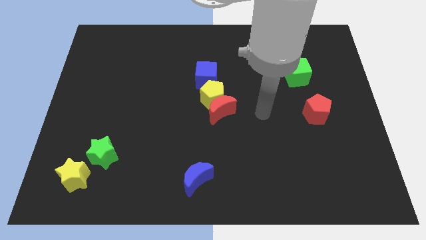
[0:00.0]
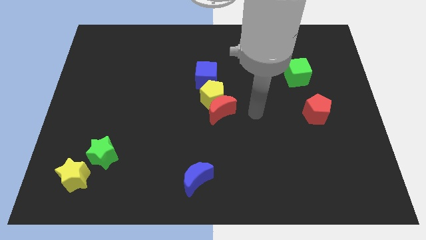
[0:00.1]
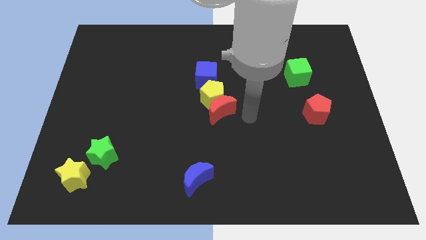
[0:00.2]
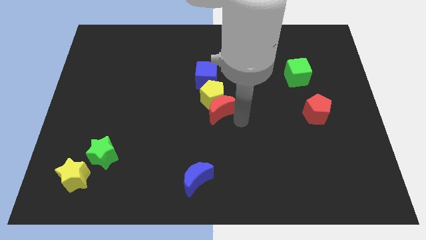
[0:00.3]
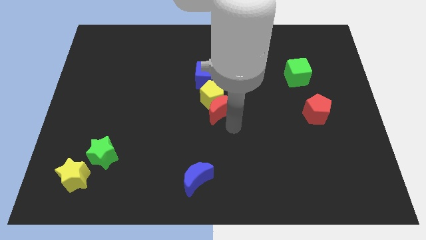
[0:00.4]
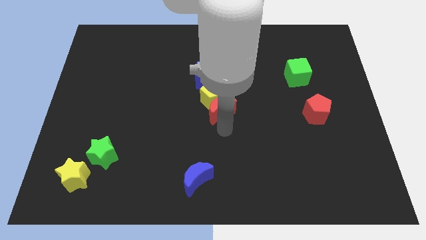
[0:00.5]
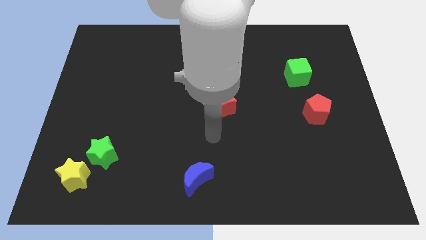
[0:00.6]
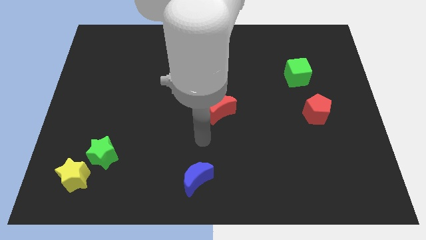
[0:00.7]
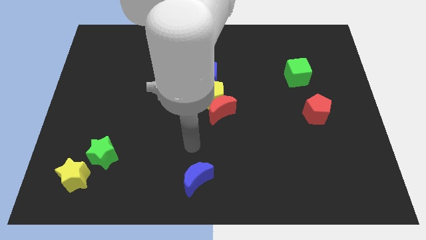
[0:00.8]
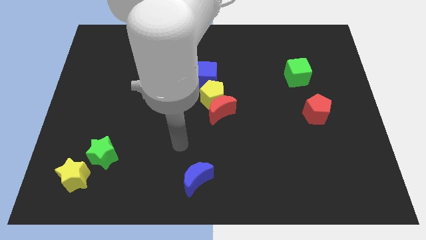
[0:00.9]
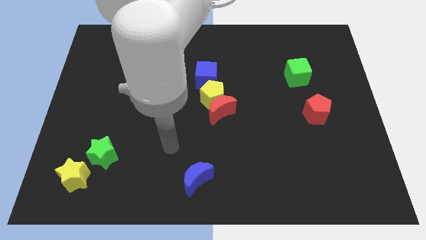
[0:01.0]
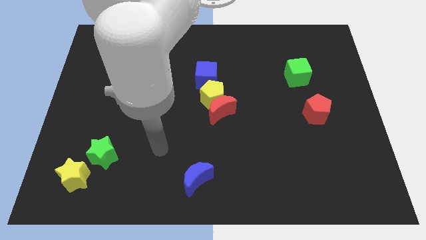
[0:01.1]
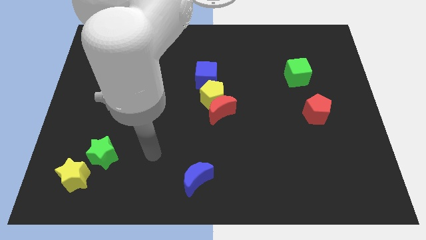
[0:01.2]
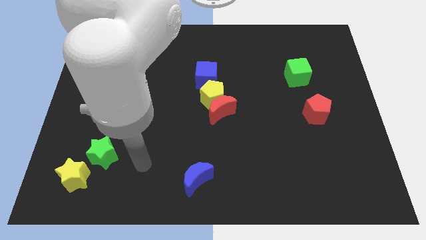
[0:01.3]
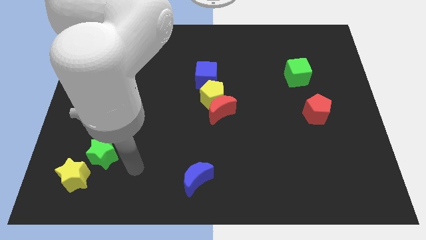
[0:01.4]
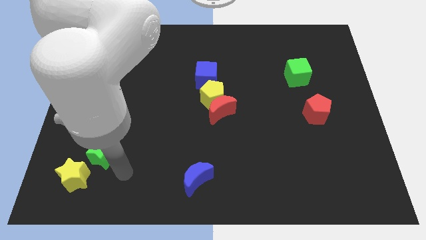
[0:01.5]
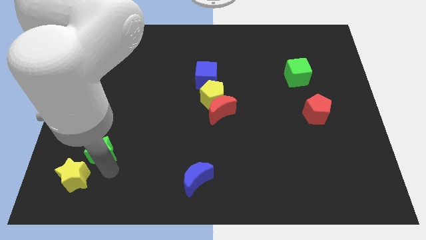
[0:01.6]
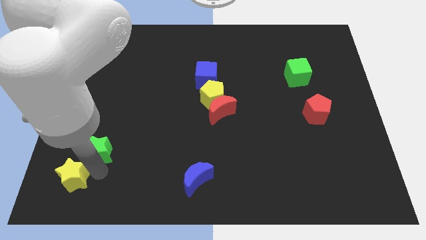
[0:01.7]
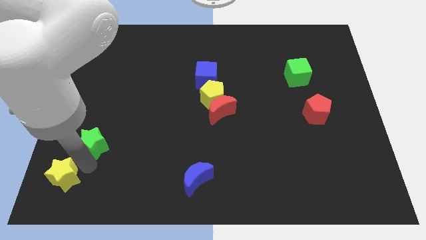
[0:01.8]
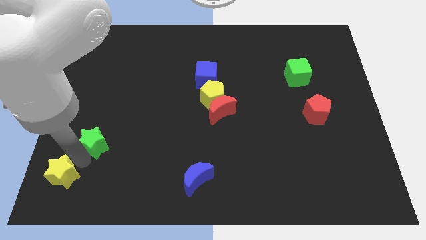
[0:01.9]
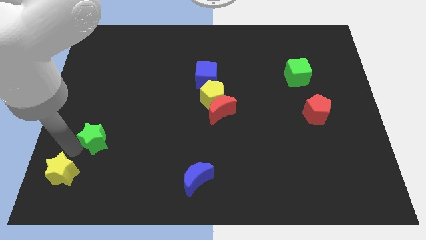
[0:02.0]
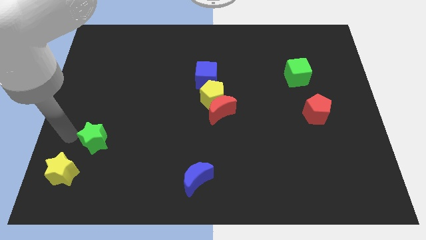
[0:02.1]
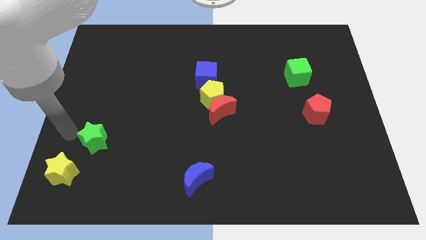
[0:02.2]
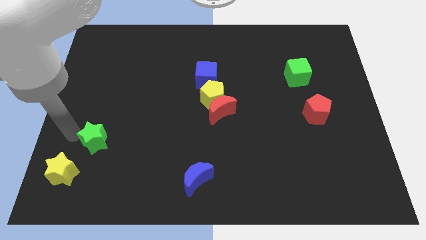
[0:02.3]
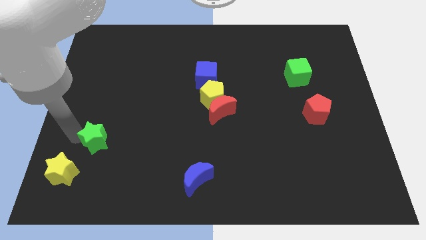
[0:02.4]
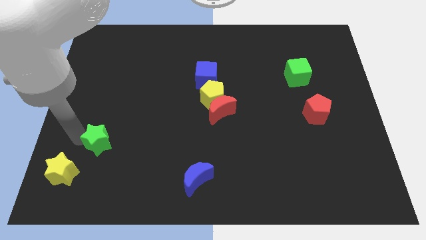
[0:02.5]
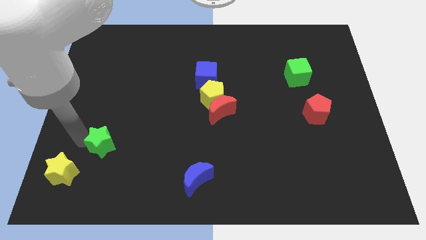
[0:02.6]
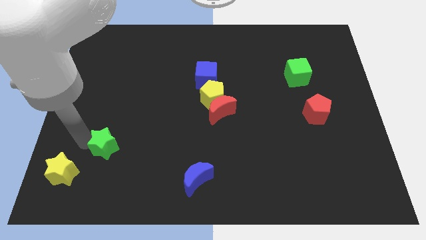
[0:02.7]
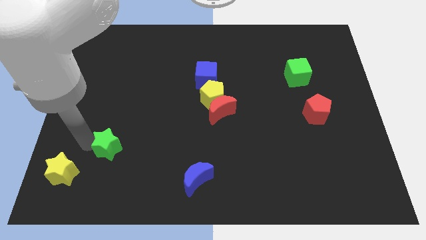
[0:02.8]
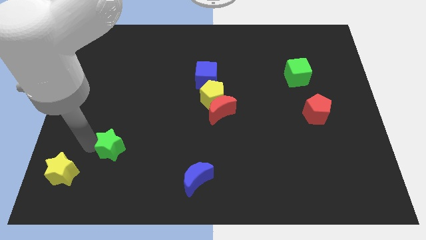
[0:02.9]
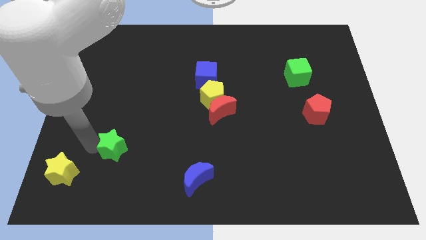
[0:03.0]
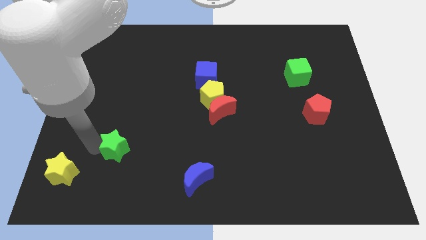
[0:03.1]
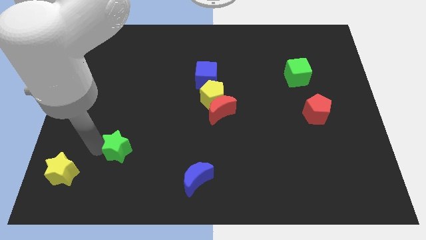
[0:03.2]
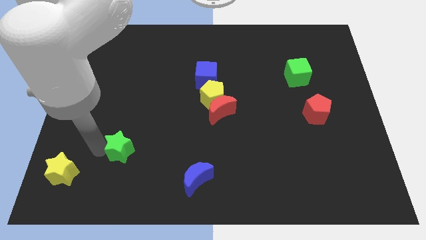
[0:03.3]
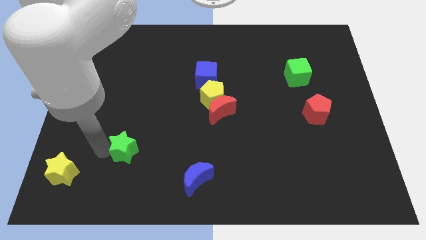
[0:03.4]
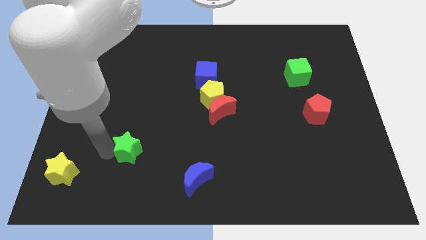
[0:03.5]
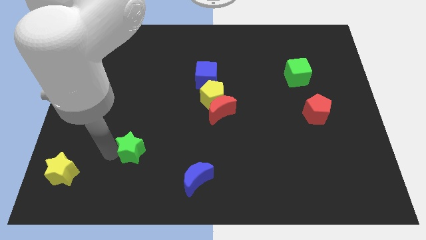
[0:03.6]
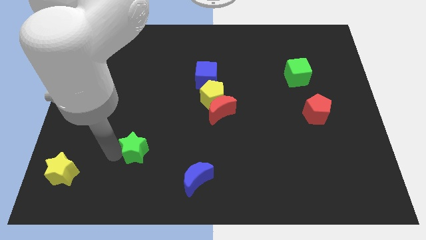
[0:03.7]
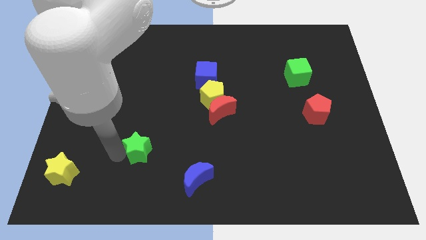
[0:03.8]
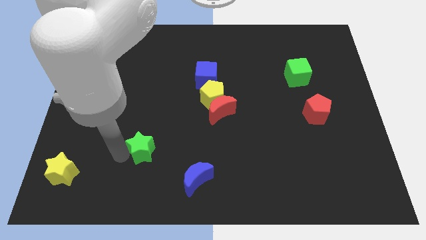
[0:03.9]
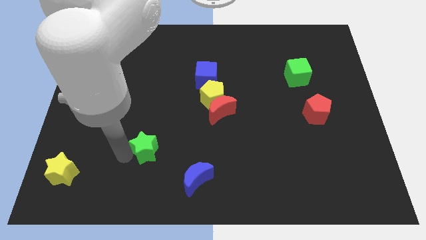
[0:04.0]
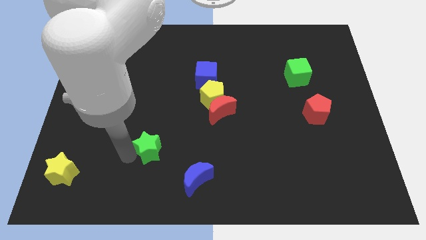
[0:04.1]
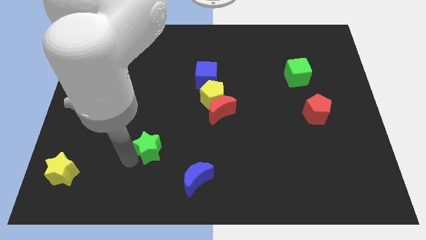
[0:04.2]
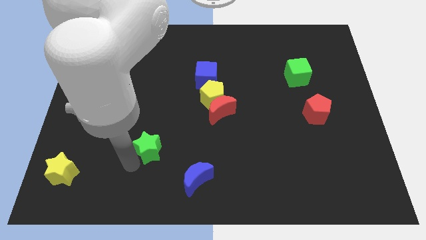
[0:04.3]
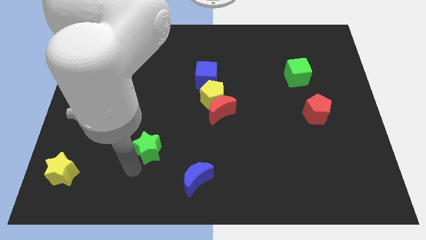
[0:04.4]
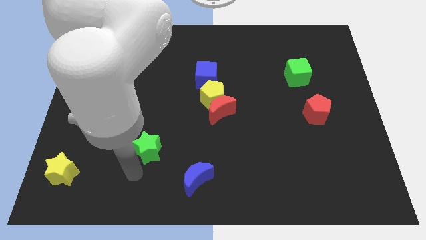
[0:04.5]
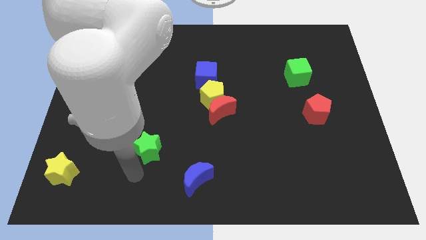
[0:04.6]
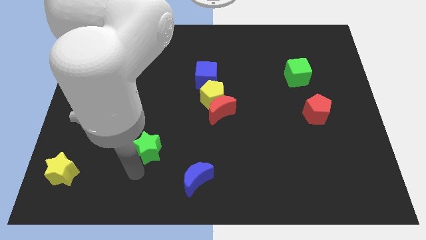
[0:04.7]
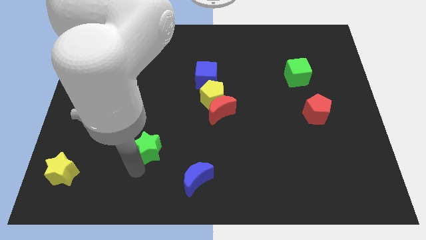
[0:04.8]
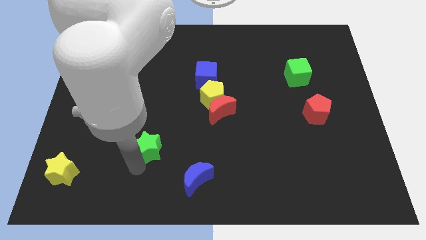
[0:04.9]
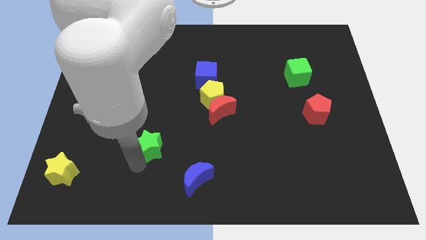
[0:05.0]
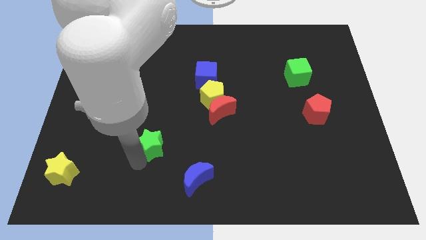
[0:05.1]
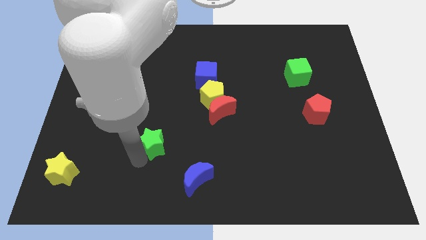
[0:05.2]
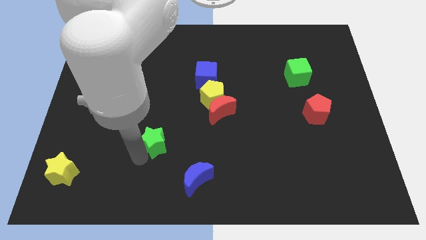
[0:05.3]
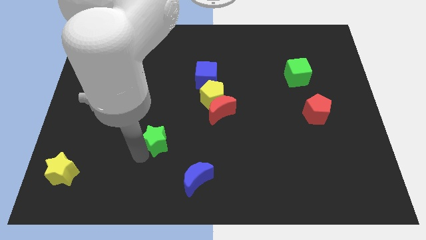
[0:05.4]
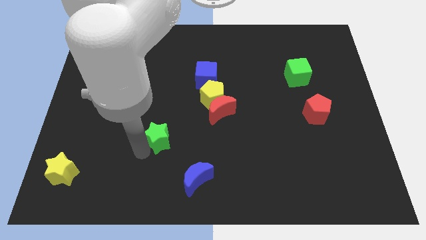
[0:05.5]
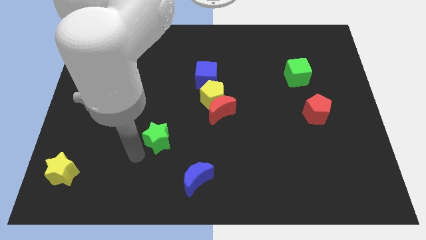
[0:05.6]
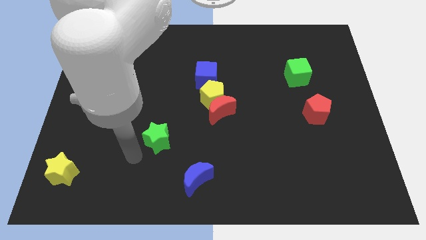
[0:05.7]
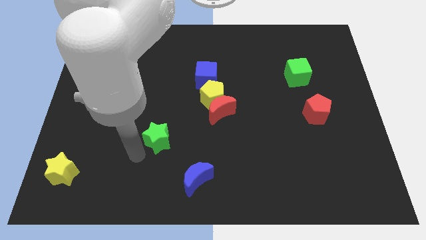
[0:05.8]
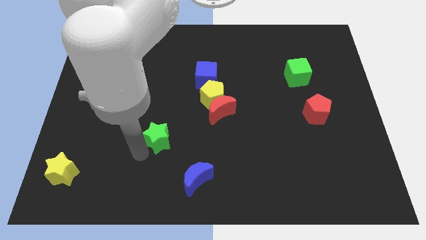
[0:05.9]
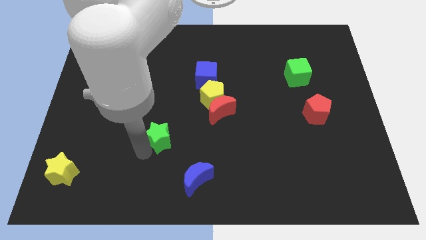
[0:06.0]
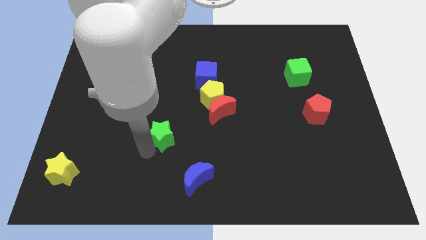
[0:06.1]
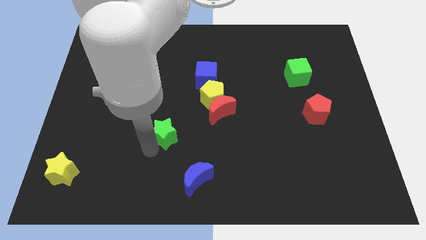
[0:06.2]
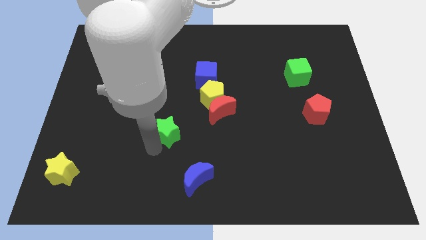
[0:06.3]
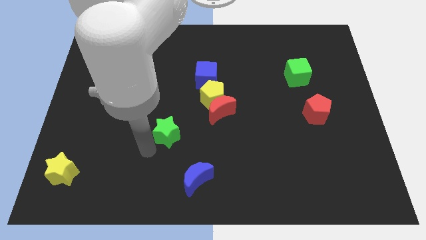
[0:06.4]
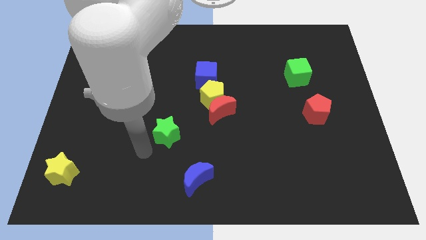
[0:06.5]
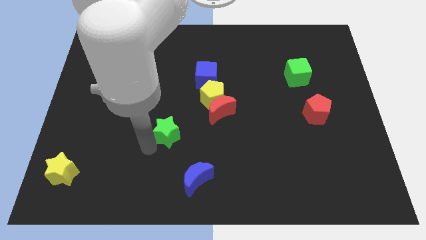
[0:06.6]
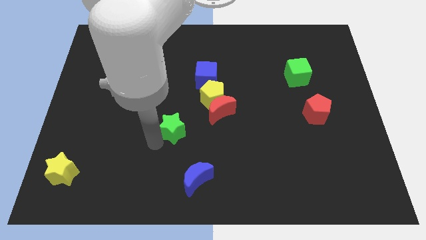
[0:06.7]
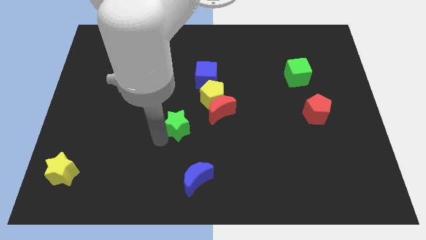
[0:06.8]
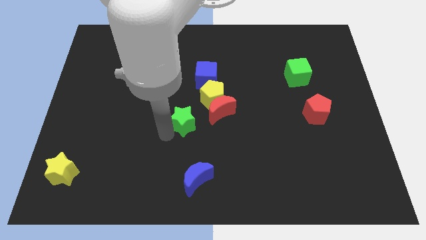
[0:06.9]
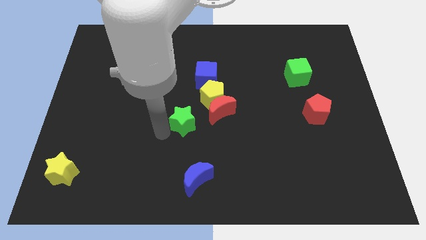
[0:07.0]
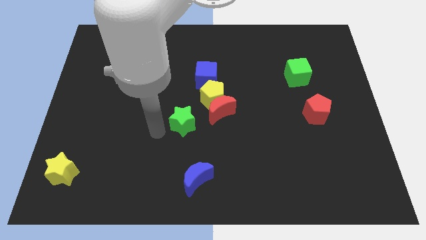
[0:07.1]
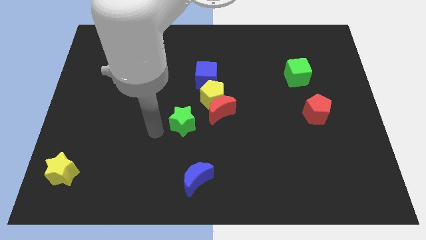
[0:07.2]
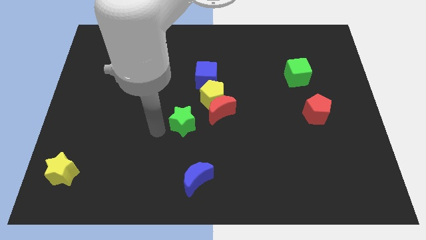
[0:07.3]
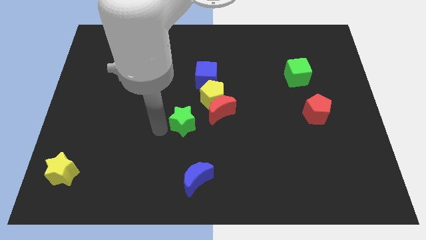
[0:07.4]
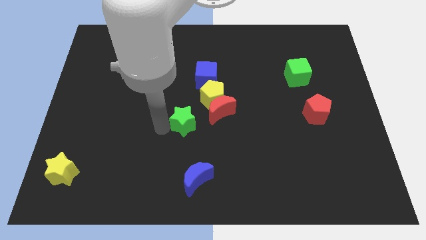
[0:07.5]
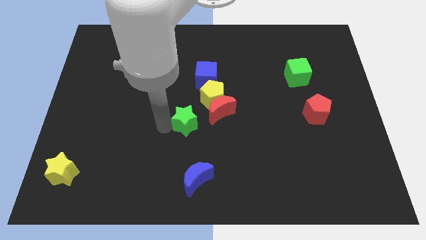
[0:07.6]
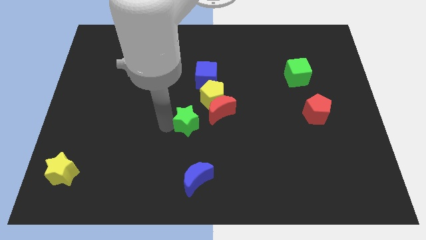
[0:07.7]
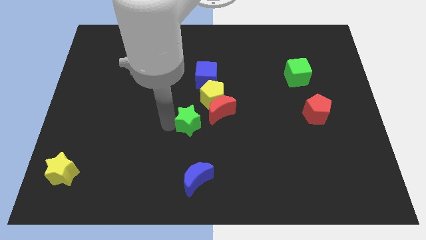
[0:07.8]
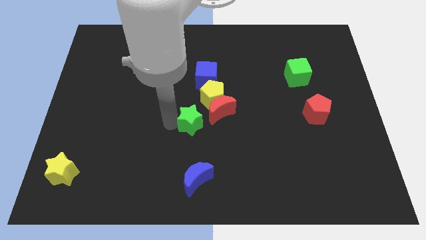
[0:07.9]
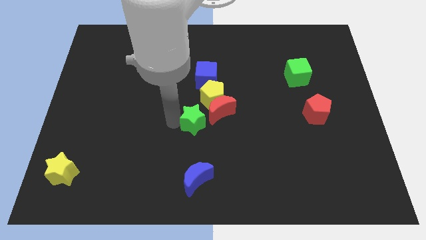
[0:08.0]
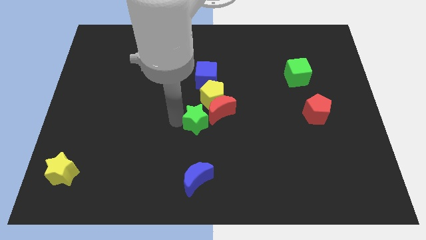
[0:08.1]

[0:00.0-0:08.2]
put the green star to the red moon
